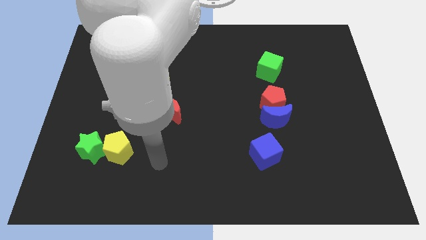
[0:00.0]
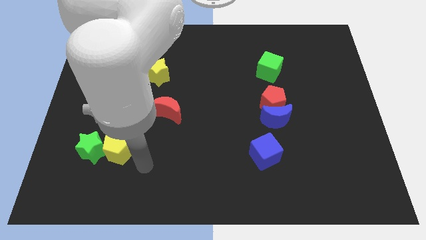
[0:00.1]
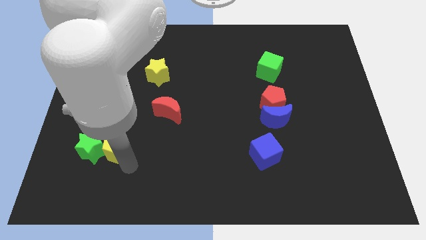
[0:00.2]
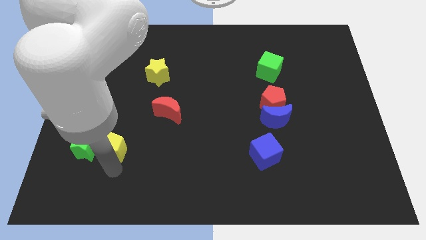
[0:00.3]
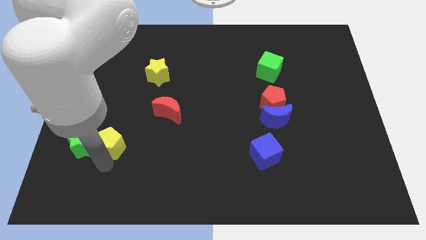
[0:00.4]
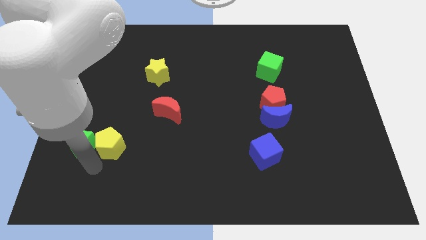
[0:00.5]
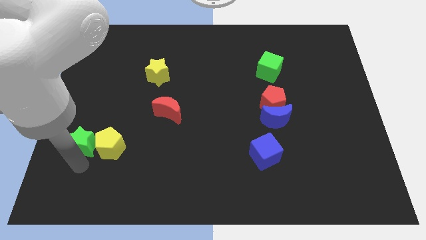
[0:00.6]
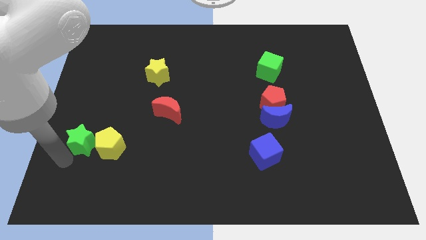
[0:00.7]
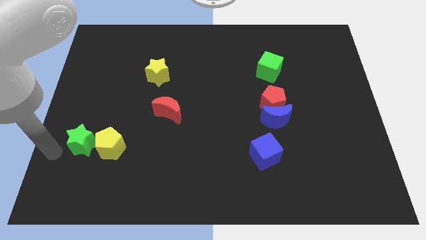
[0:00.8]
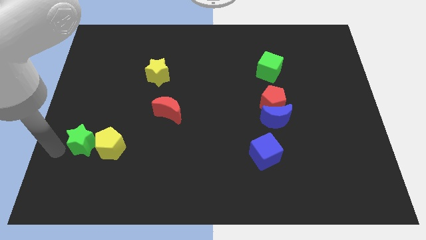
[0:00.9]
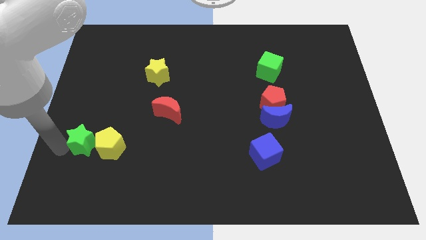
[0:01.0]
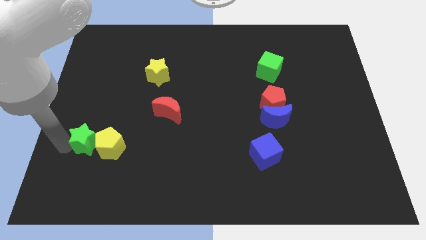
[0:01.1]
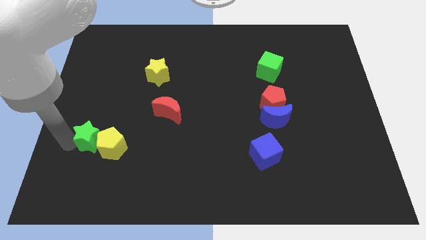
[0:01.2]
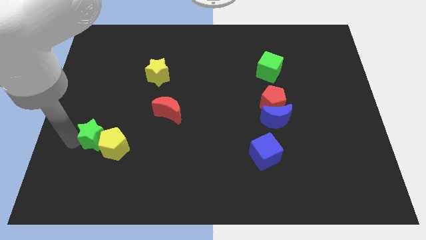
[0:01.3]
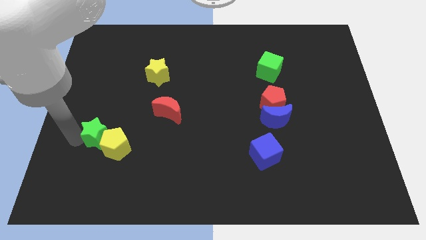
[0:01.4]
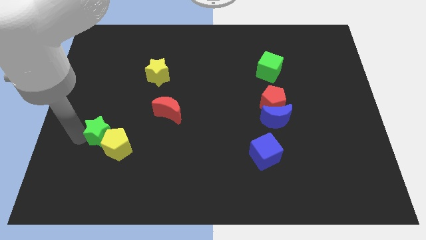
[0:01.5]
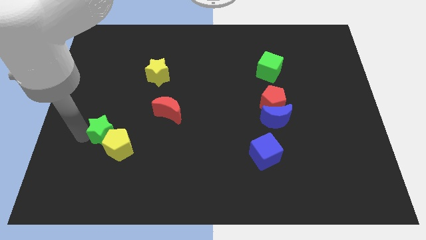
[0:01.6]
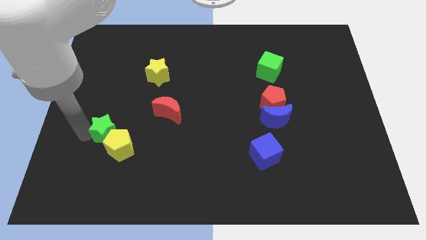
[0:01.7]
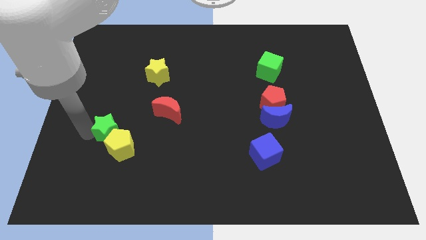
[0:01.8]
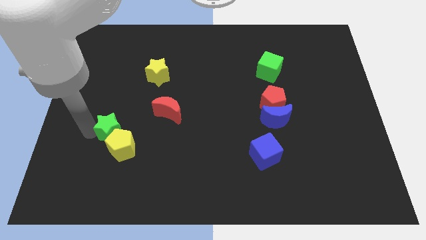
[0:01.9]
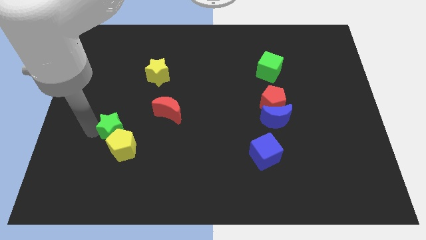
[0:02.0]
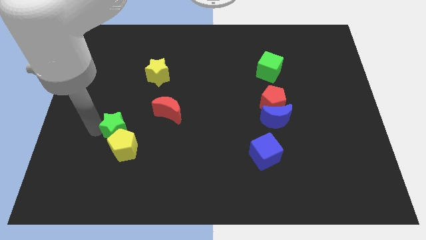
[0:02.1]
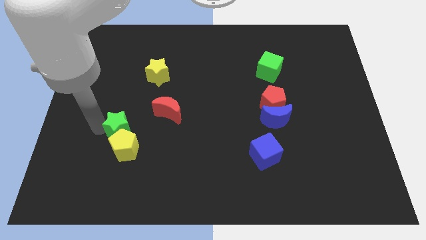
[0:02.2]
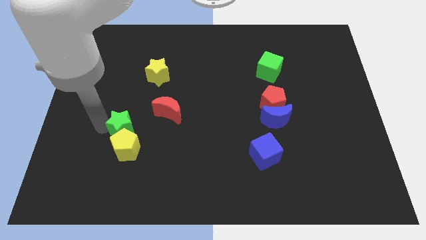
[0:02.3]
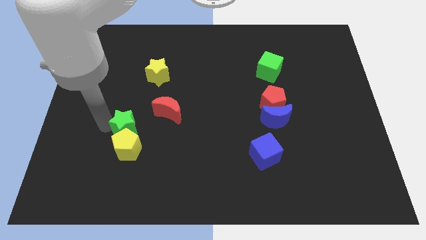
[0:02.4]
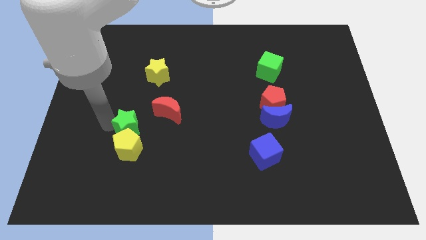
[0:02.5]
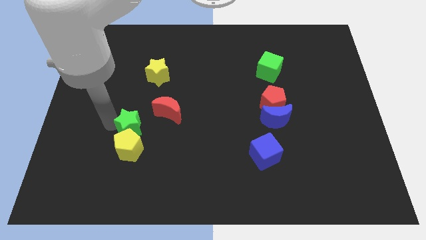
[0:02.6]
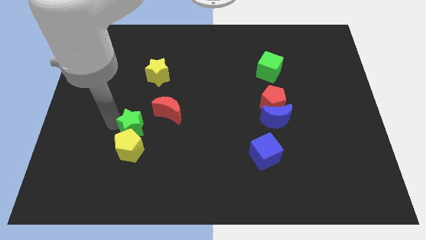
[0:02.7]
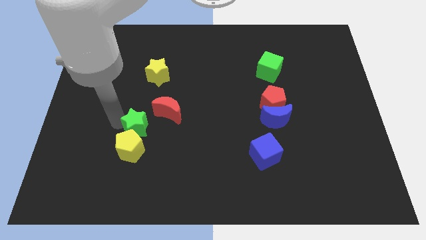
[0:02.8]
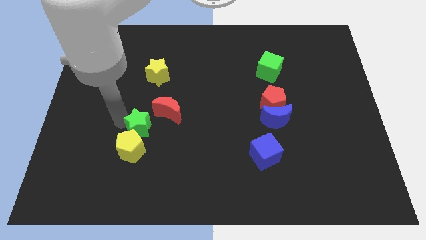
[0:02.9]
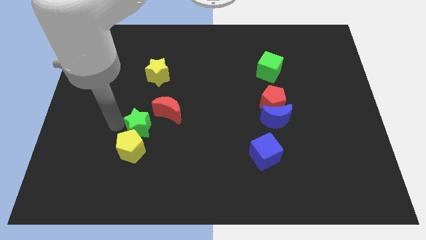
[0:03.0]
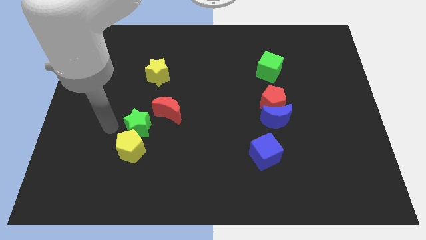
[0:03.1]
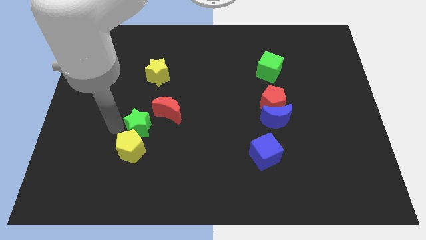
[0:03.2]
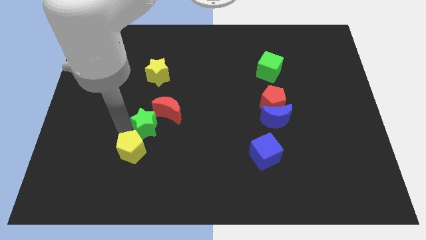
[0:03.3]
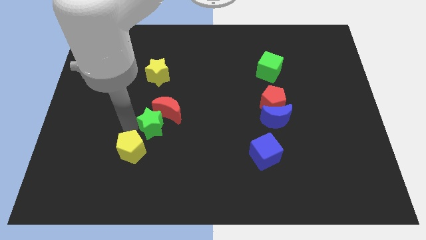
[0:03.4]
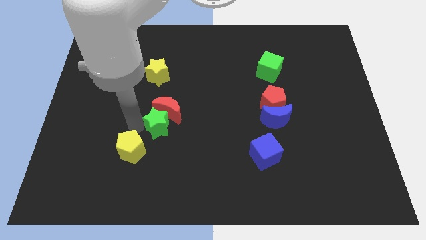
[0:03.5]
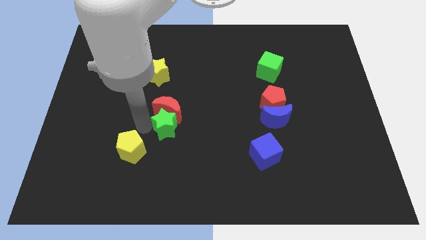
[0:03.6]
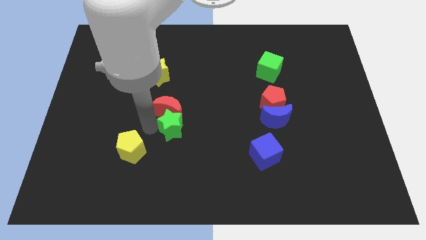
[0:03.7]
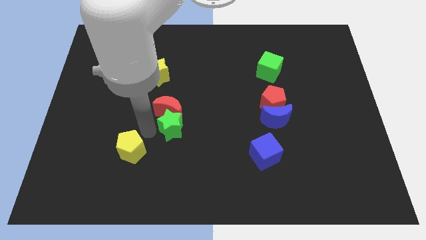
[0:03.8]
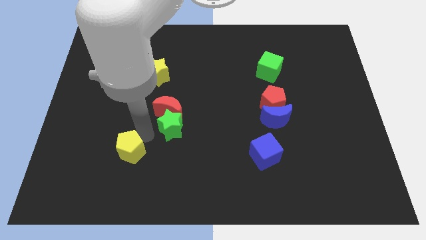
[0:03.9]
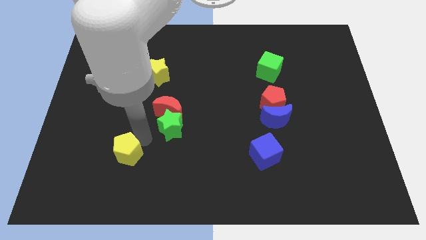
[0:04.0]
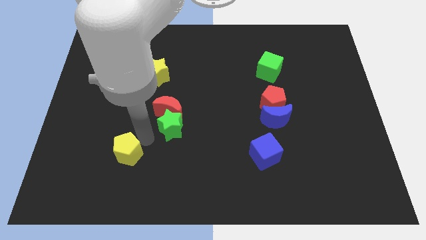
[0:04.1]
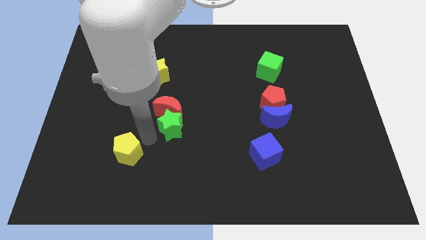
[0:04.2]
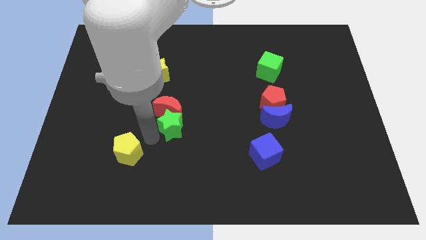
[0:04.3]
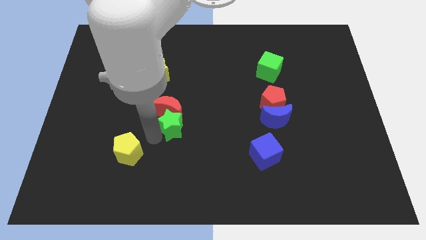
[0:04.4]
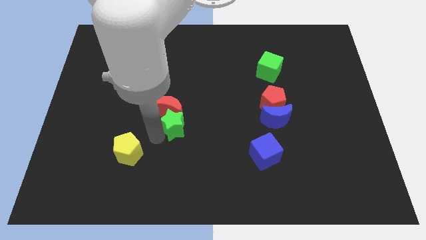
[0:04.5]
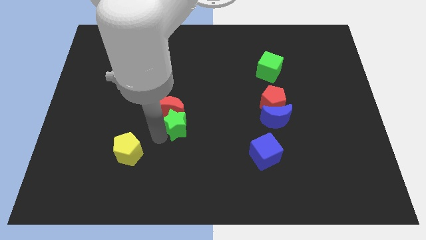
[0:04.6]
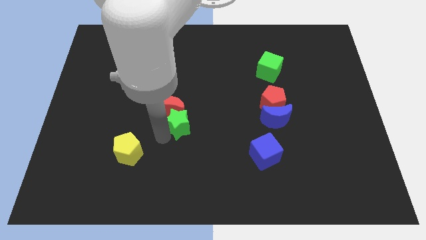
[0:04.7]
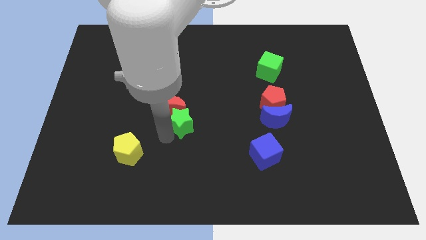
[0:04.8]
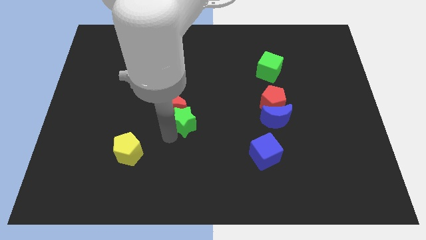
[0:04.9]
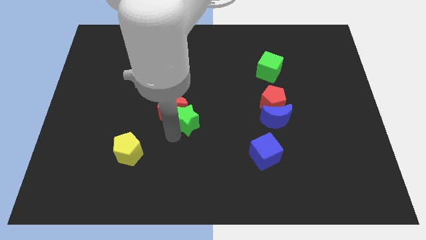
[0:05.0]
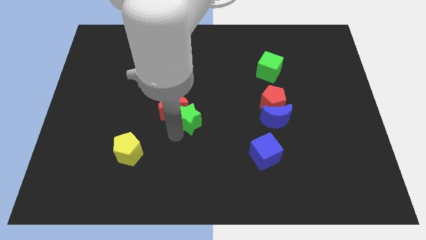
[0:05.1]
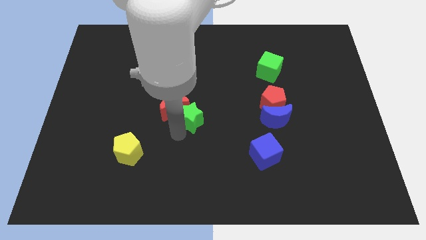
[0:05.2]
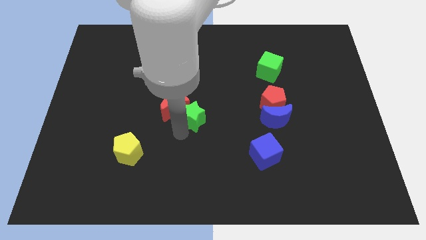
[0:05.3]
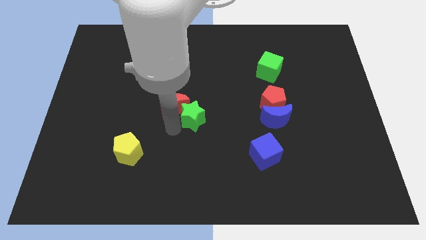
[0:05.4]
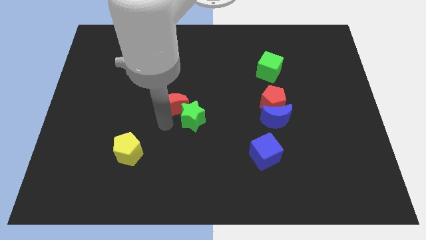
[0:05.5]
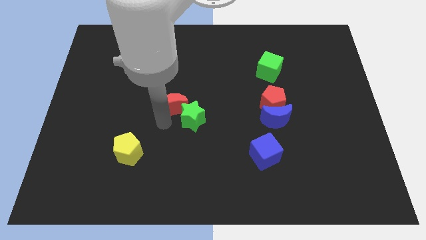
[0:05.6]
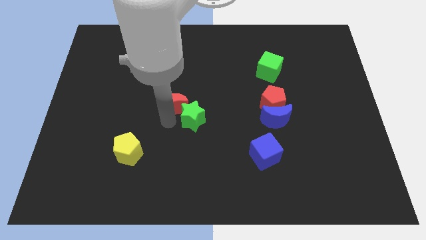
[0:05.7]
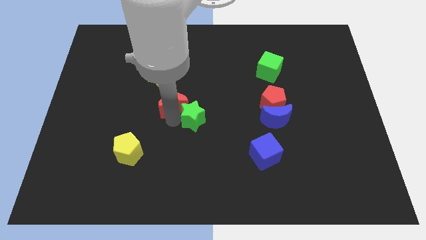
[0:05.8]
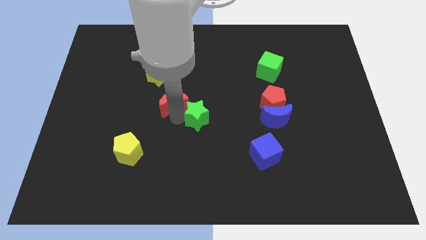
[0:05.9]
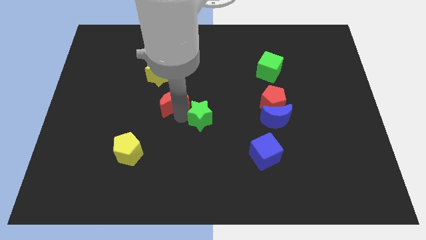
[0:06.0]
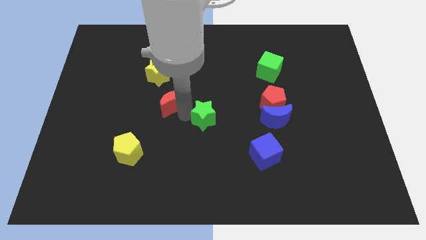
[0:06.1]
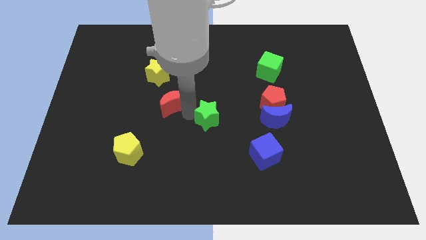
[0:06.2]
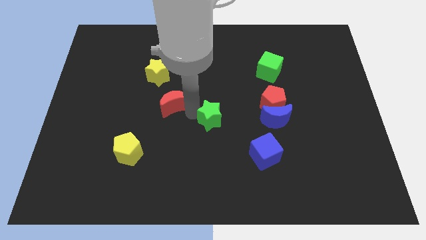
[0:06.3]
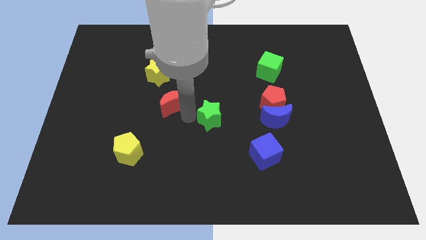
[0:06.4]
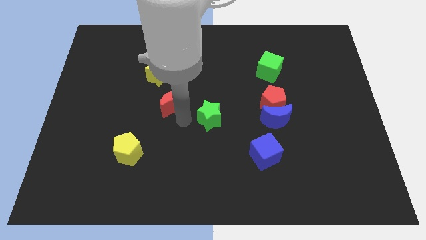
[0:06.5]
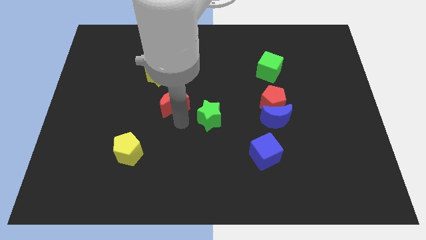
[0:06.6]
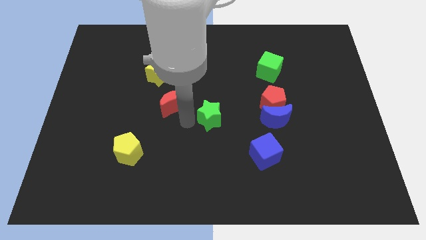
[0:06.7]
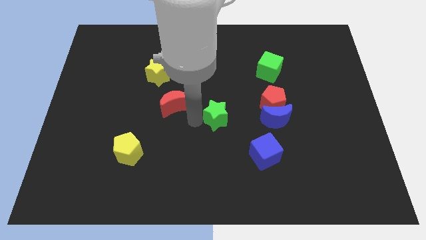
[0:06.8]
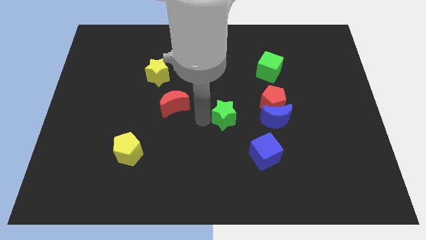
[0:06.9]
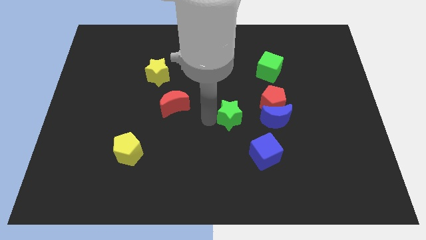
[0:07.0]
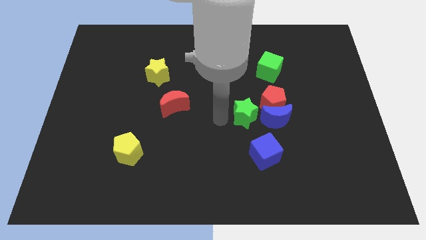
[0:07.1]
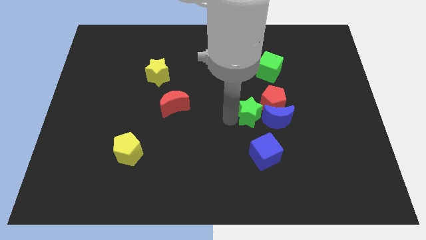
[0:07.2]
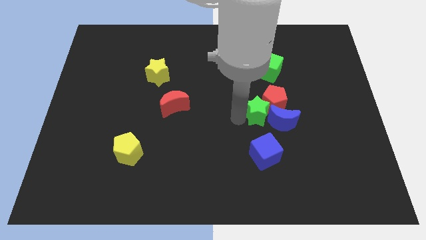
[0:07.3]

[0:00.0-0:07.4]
slide the green star next to the red pentagon
